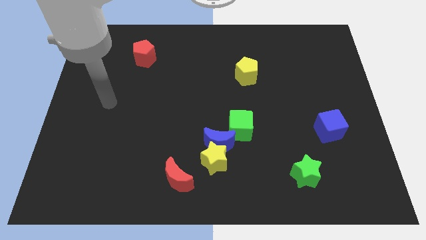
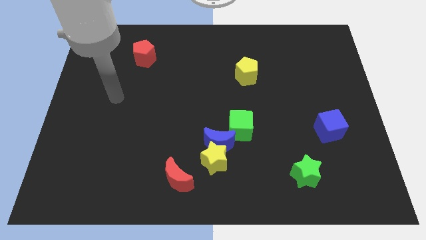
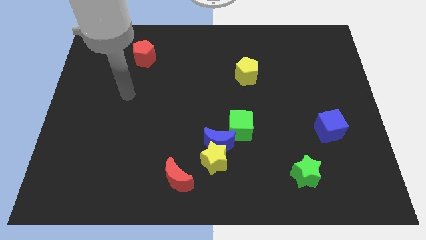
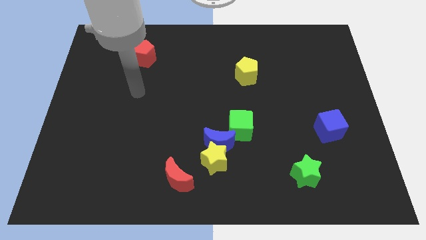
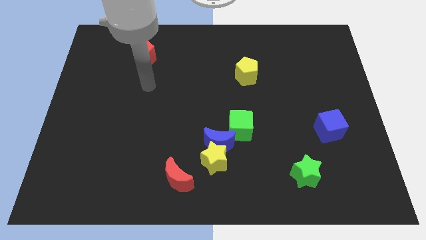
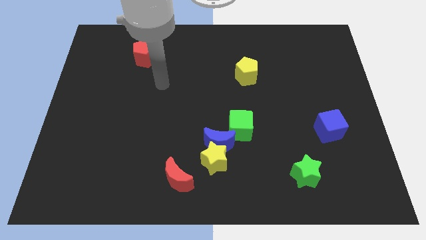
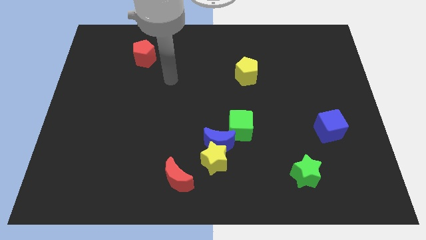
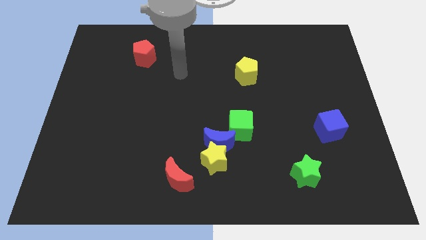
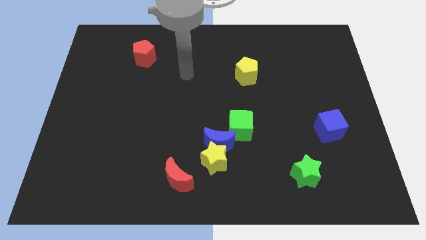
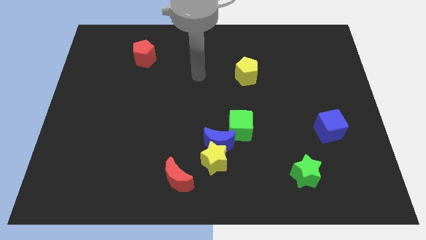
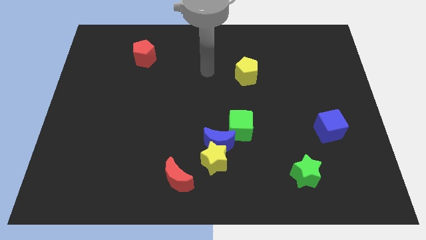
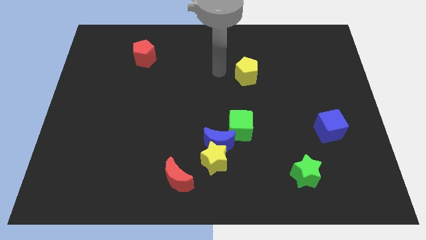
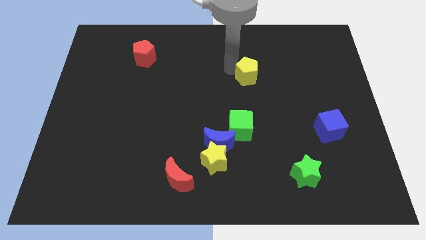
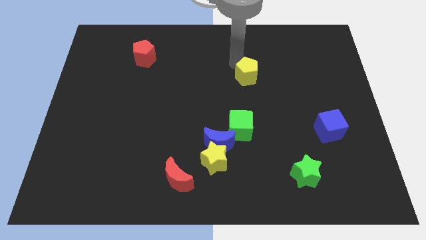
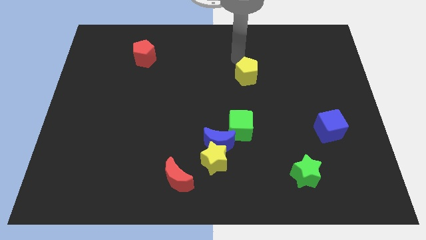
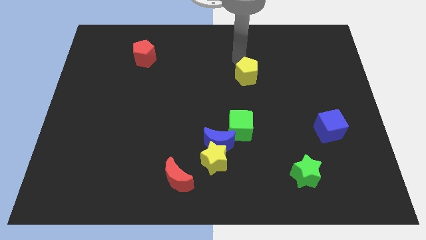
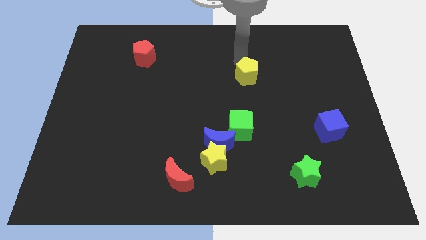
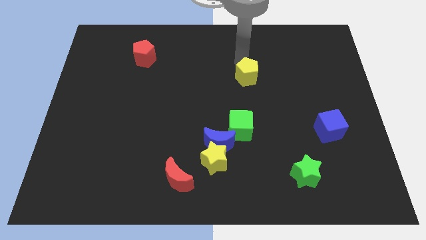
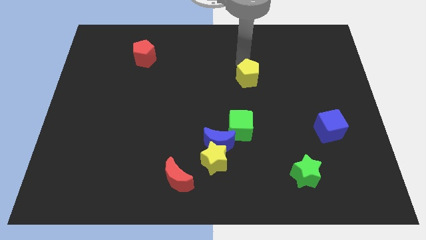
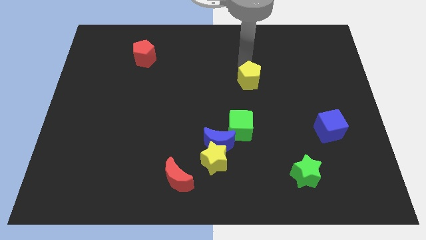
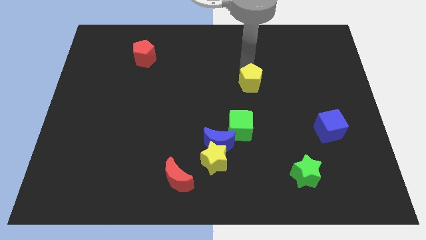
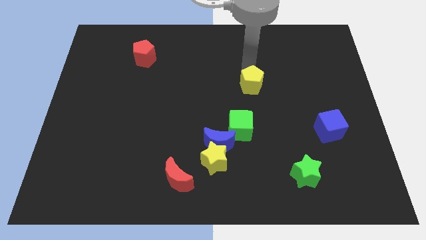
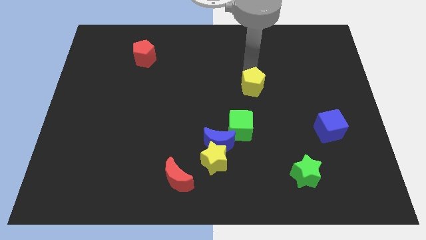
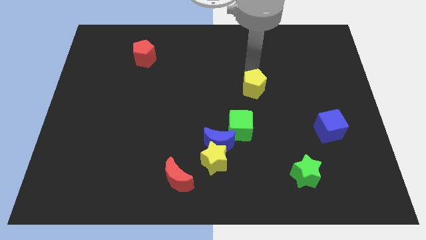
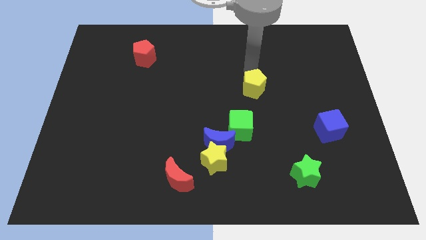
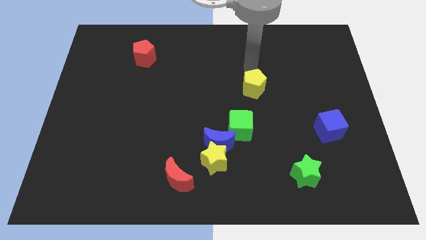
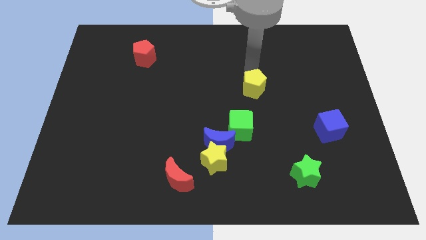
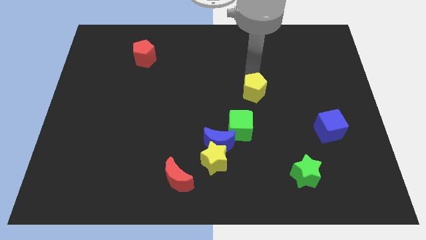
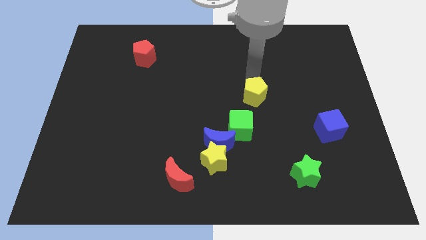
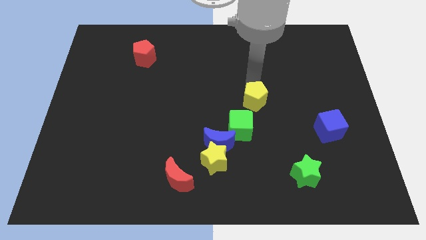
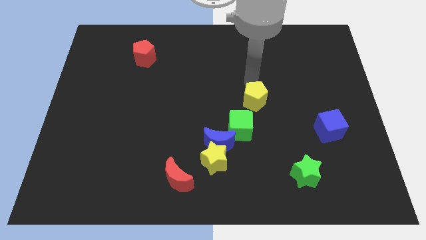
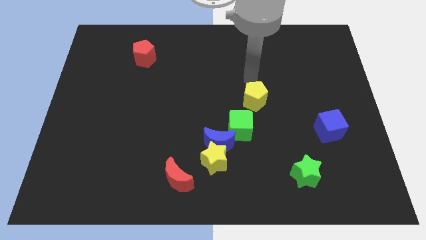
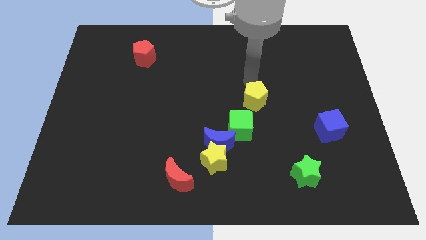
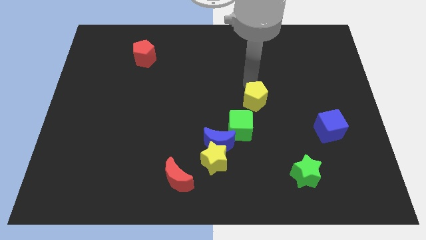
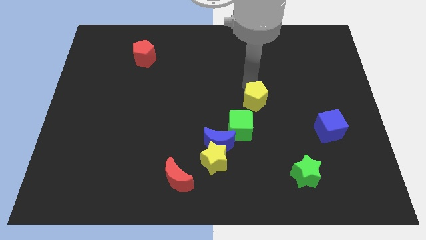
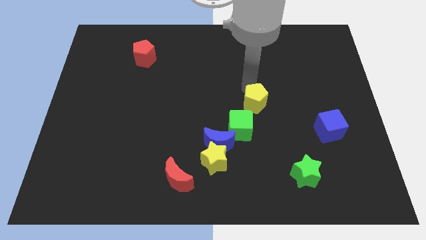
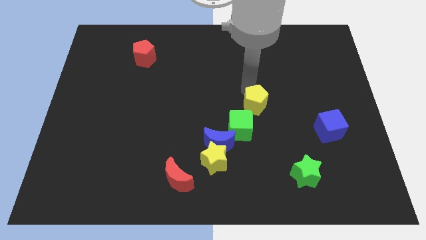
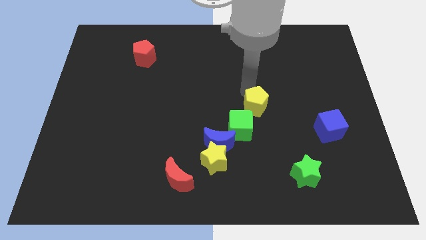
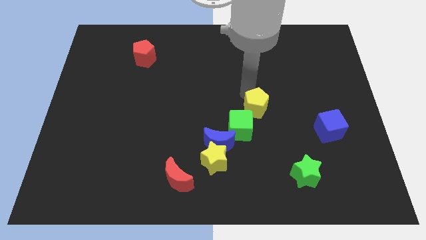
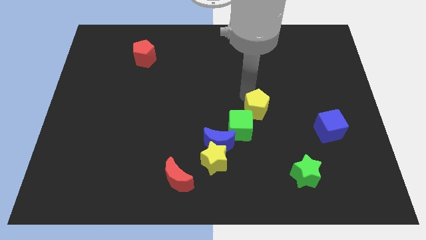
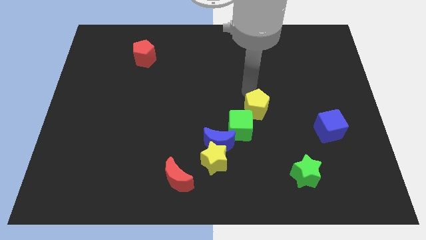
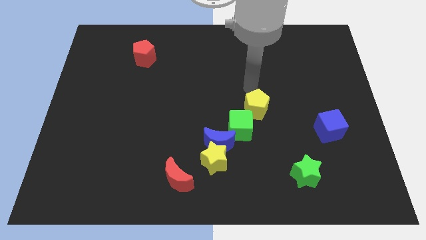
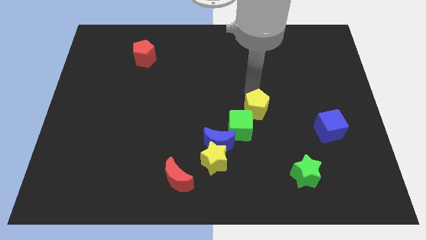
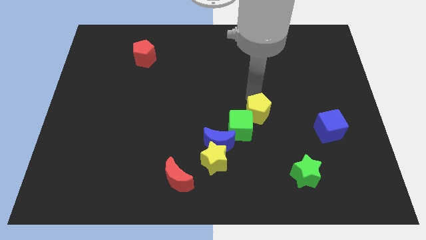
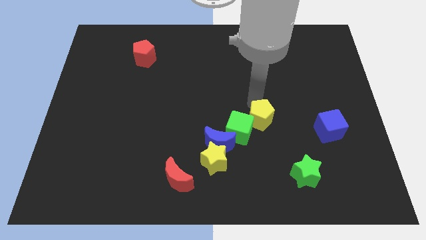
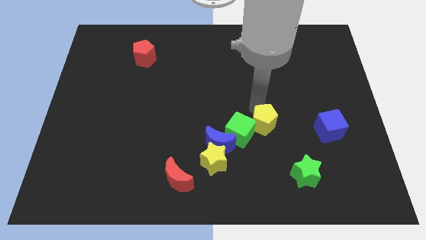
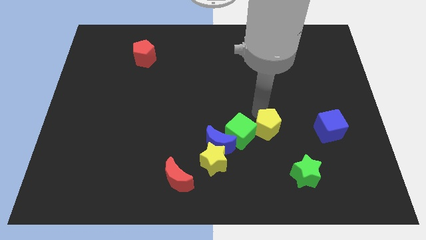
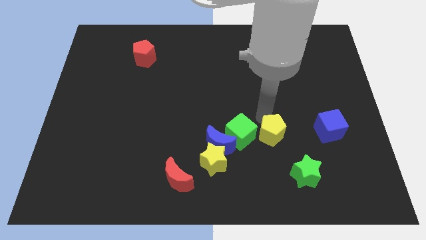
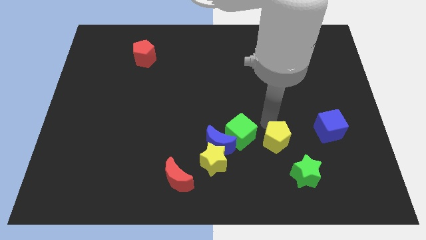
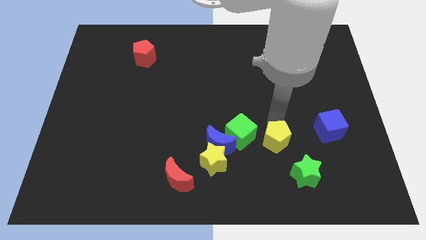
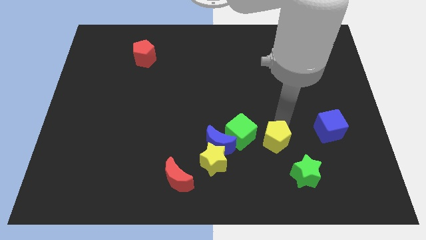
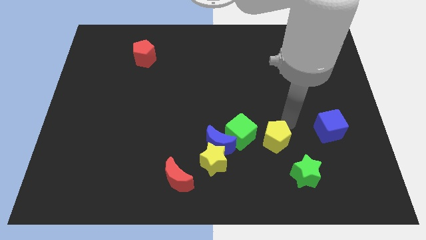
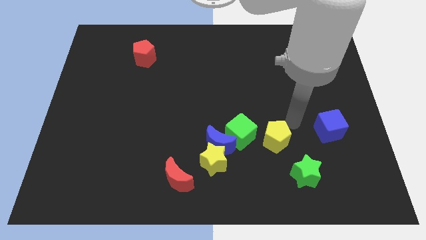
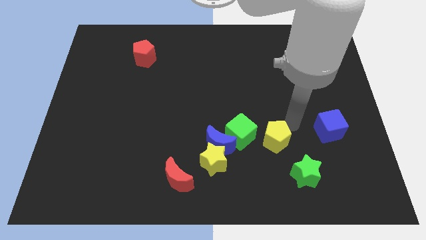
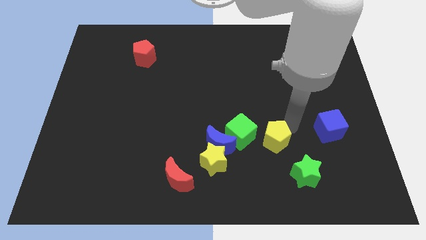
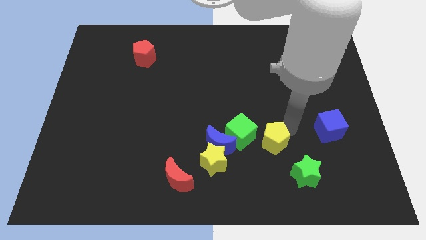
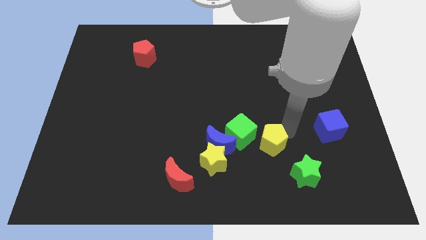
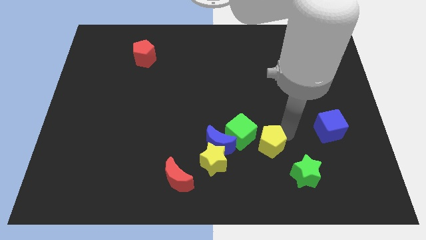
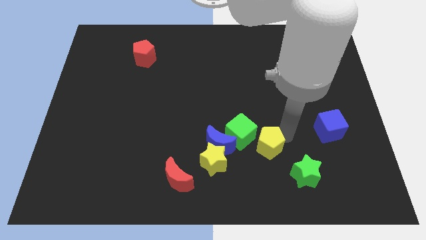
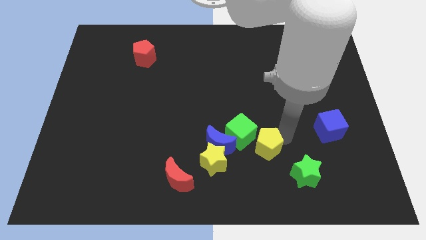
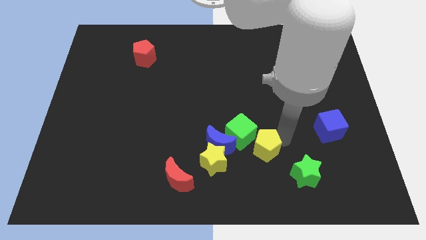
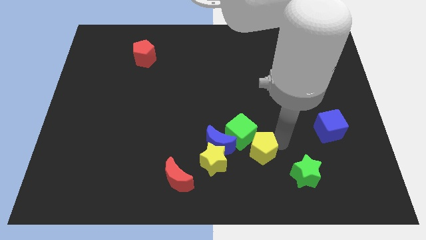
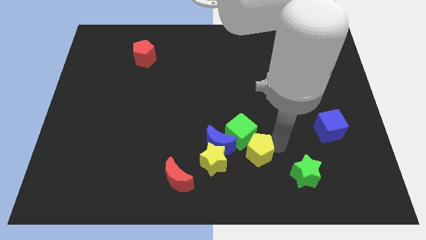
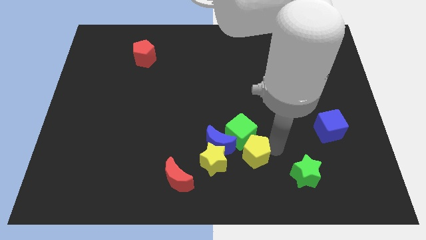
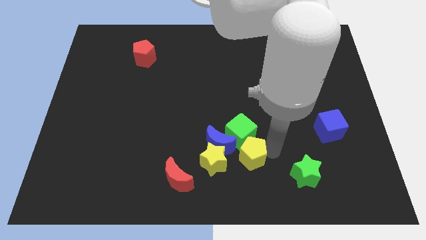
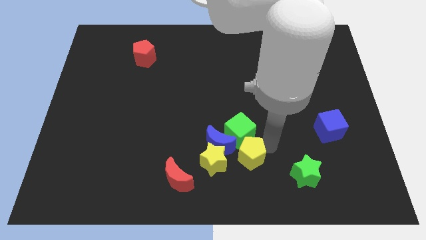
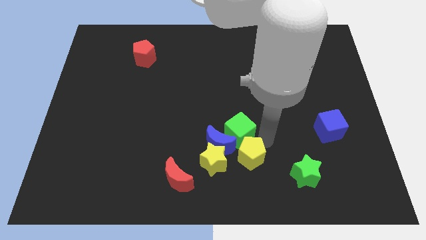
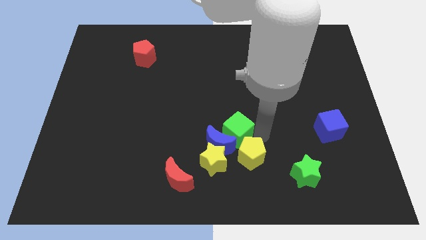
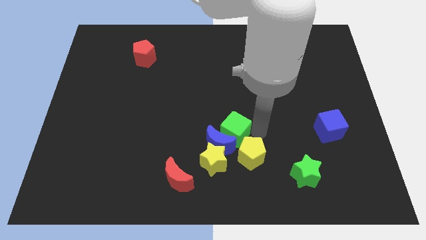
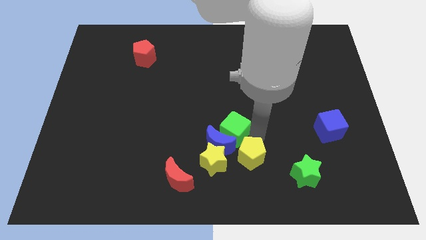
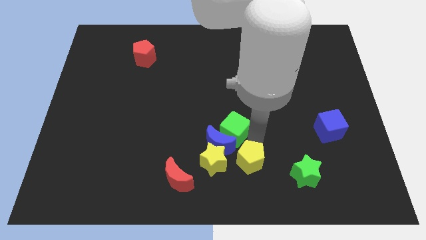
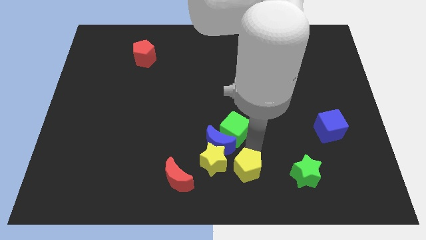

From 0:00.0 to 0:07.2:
move the yellow pentagon to the bottom right side of the yellow star

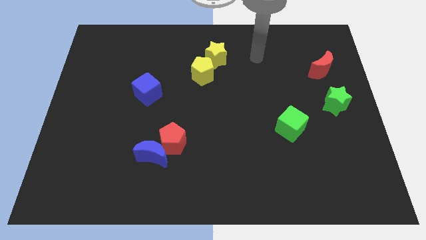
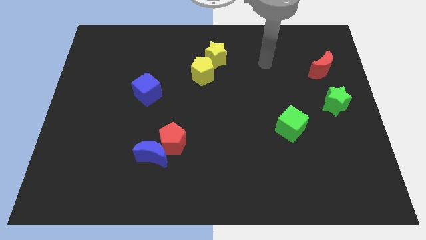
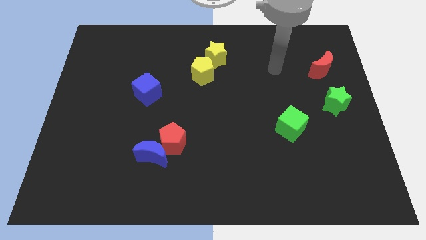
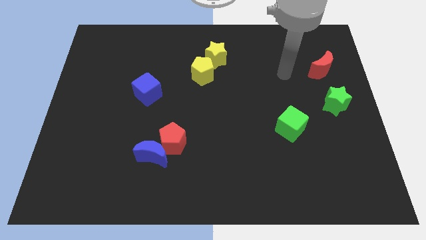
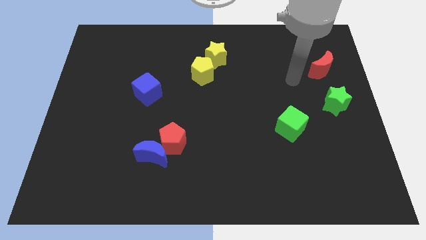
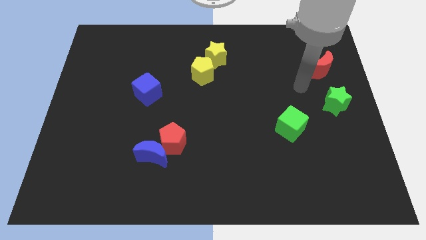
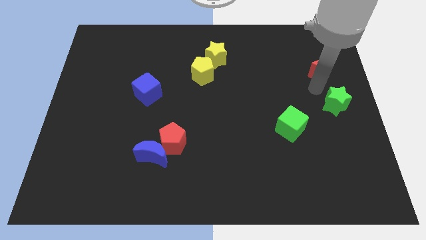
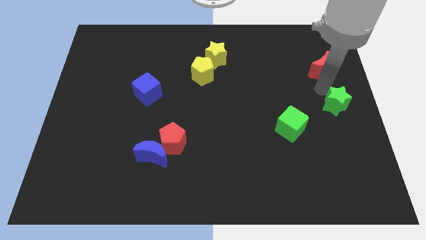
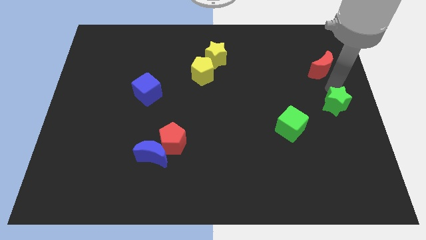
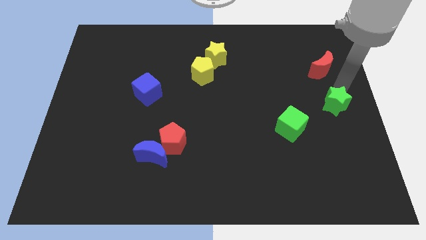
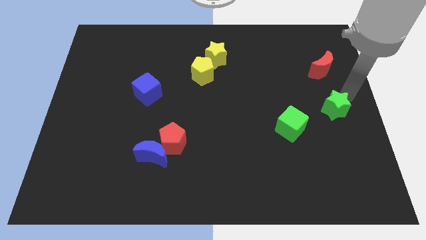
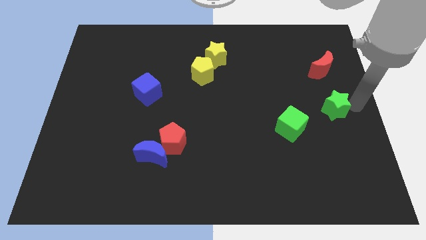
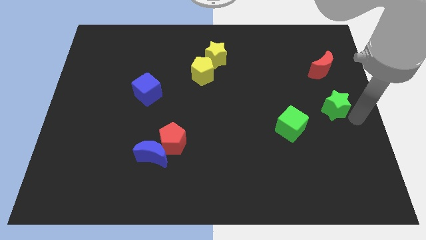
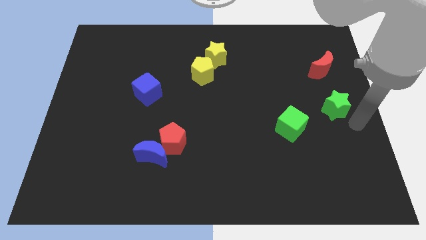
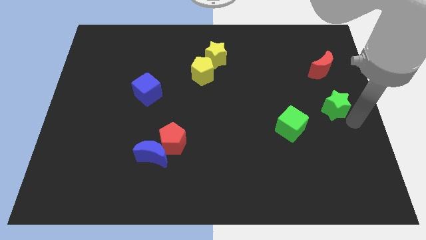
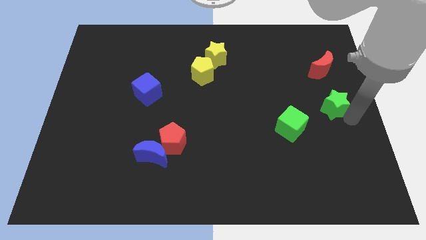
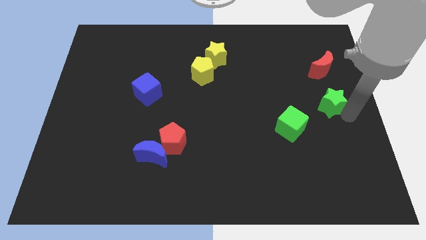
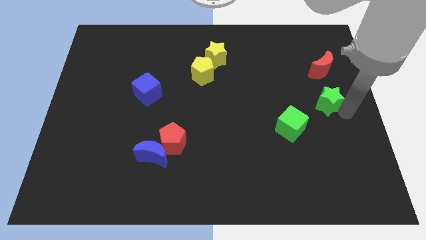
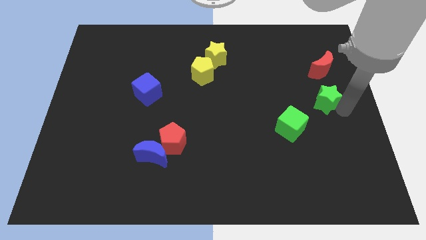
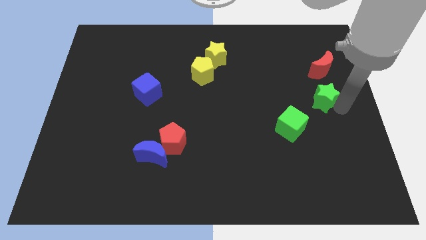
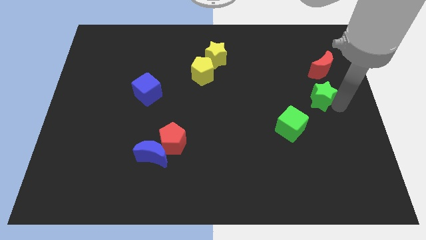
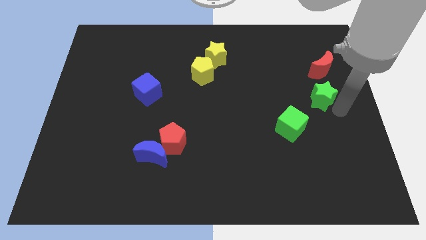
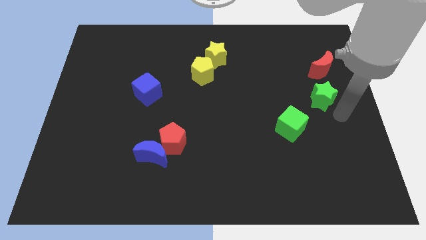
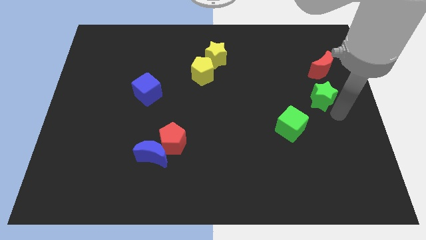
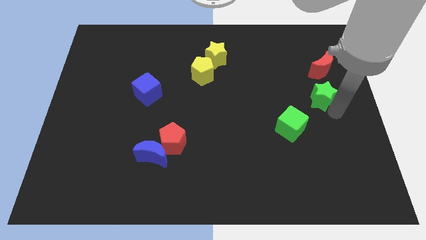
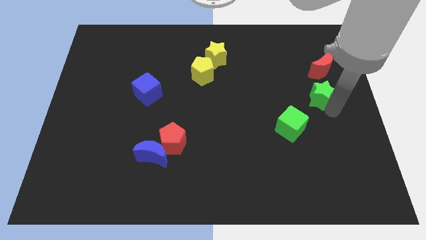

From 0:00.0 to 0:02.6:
push the green star to the bottom left of the red moon
